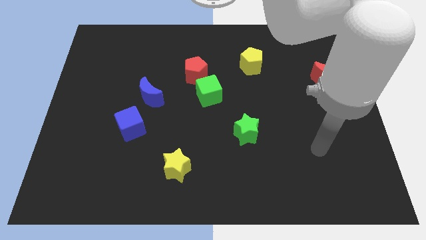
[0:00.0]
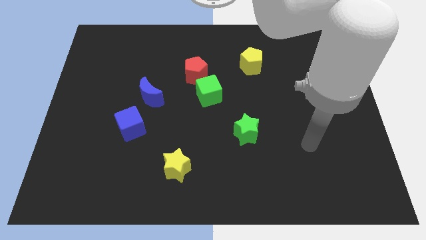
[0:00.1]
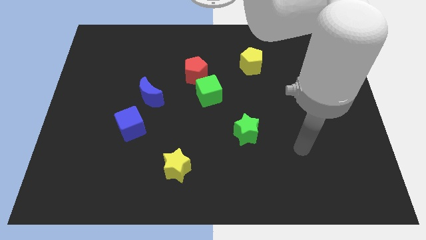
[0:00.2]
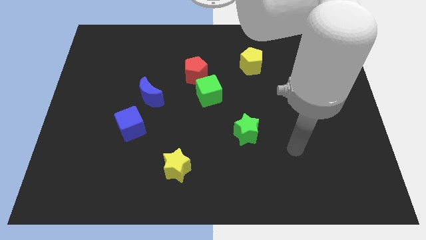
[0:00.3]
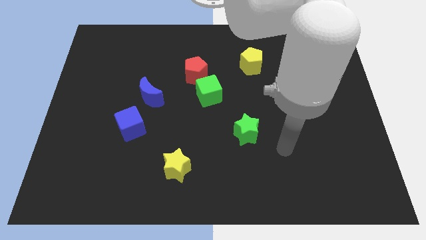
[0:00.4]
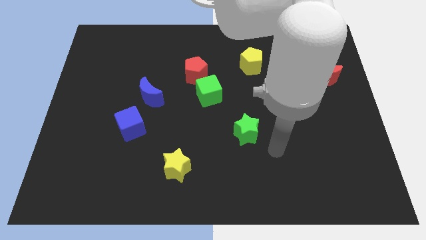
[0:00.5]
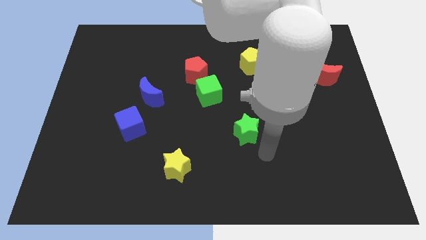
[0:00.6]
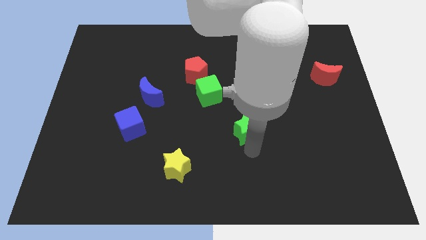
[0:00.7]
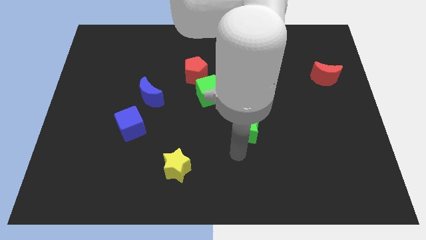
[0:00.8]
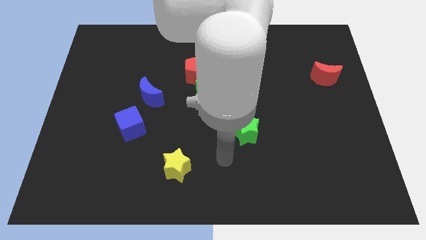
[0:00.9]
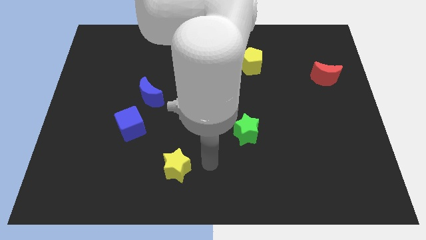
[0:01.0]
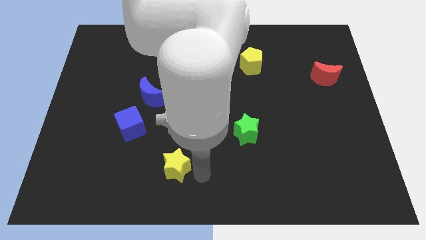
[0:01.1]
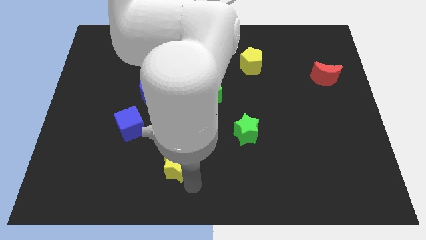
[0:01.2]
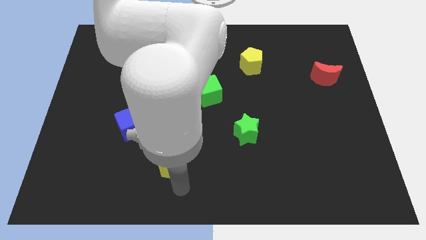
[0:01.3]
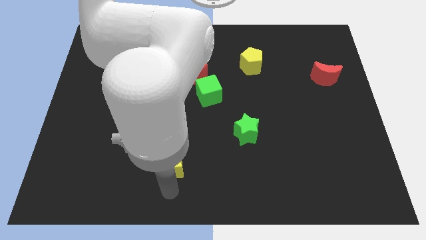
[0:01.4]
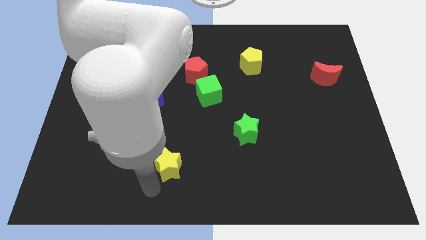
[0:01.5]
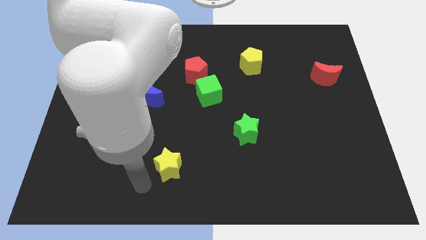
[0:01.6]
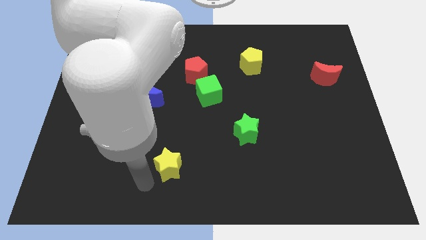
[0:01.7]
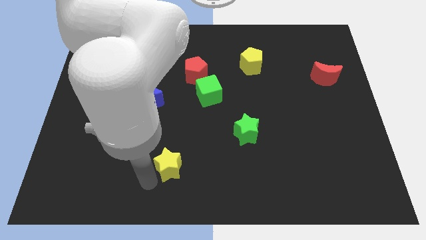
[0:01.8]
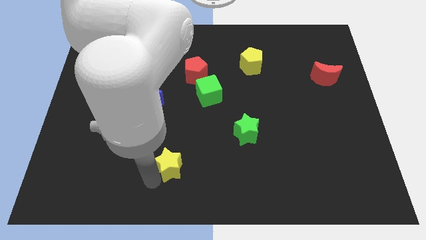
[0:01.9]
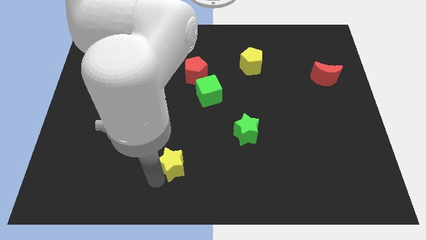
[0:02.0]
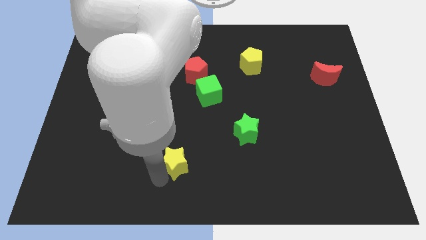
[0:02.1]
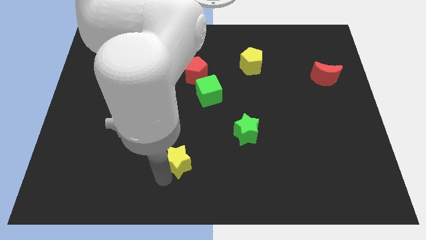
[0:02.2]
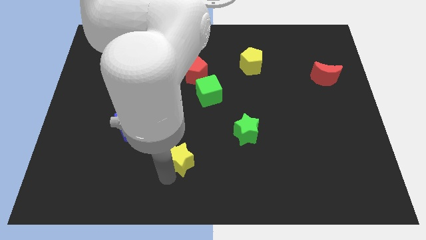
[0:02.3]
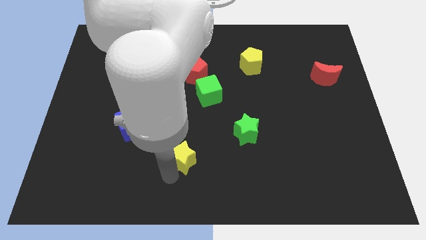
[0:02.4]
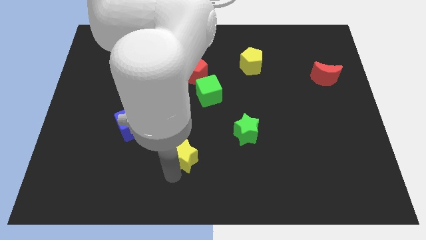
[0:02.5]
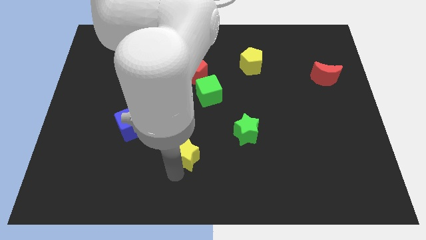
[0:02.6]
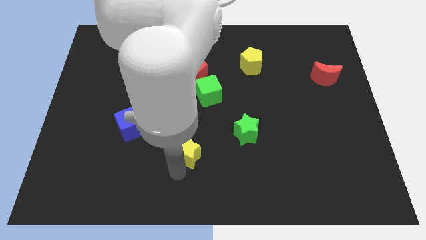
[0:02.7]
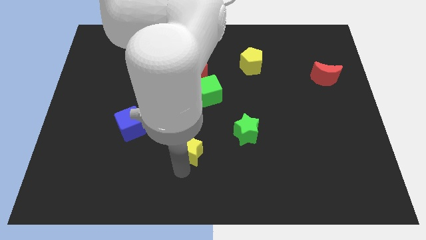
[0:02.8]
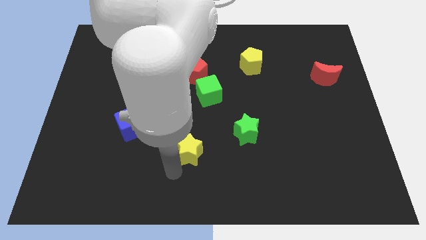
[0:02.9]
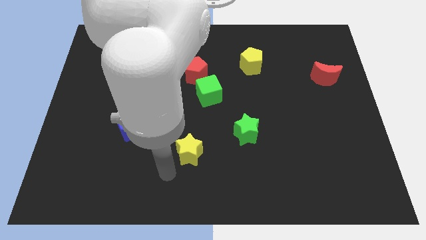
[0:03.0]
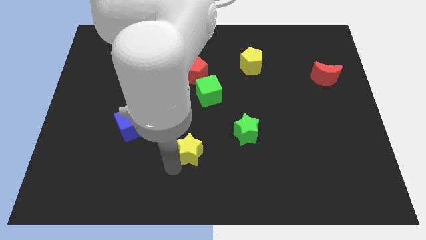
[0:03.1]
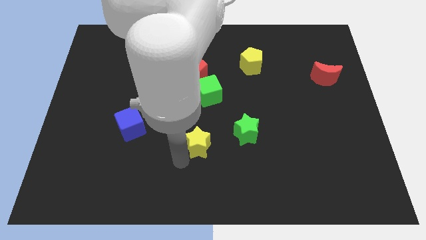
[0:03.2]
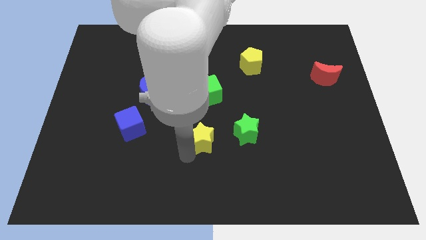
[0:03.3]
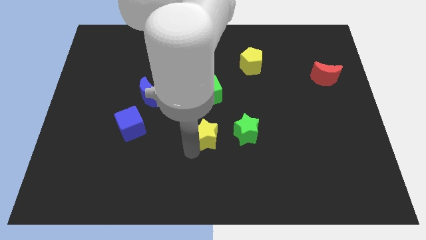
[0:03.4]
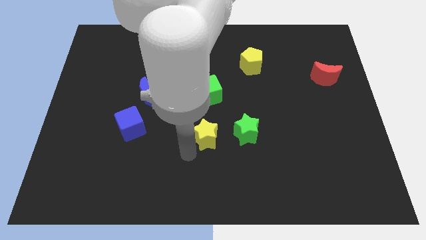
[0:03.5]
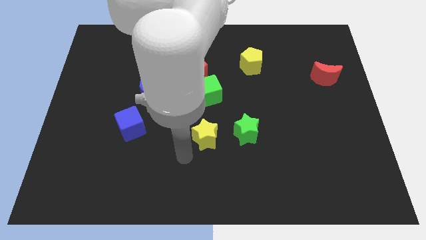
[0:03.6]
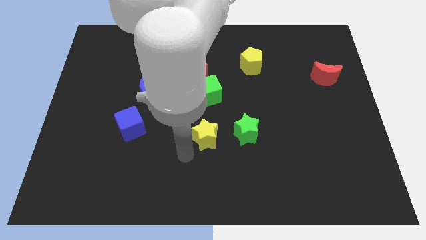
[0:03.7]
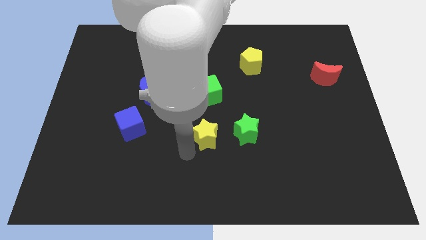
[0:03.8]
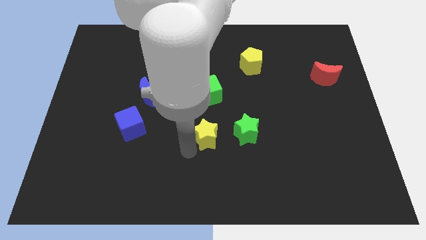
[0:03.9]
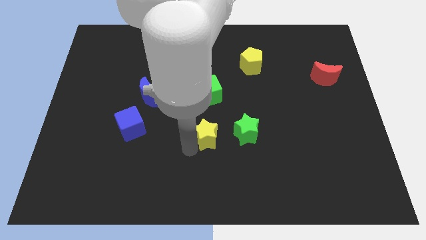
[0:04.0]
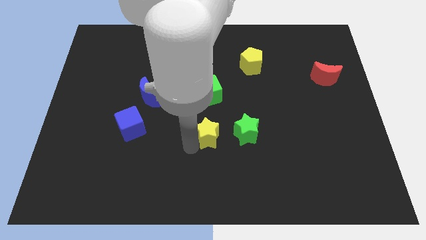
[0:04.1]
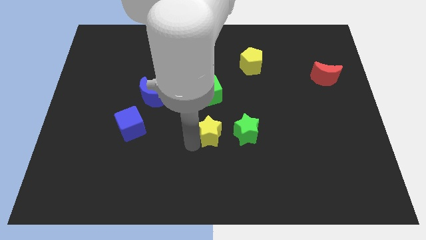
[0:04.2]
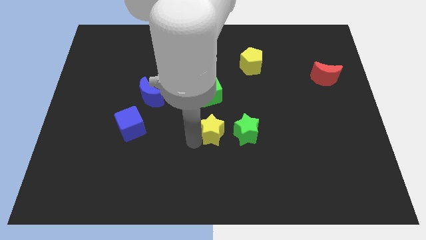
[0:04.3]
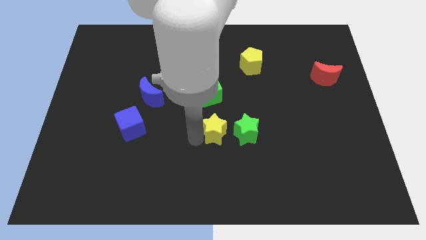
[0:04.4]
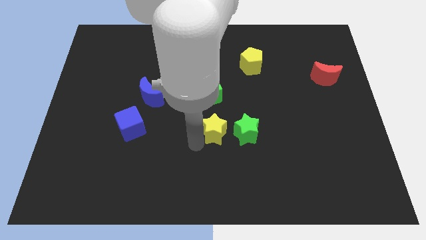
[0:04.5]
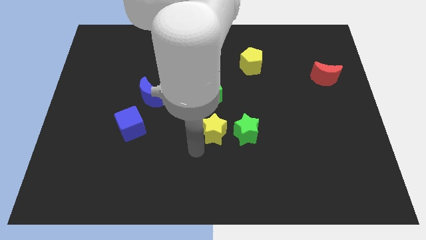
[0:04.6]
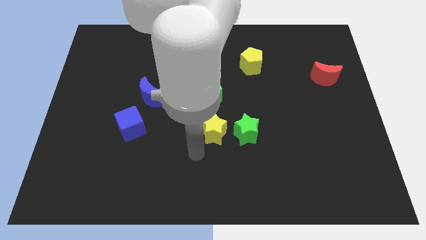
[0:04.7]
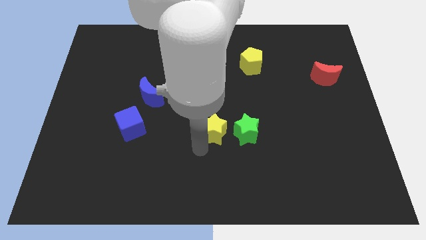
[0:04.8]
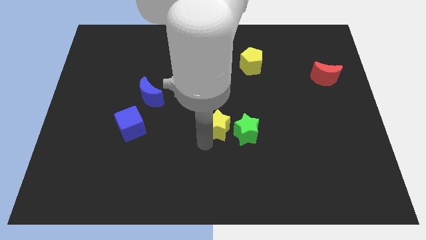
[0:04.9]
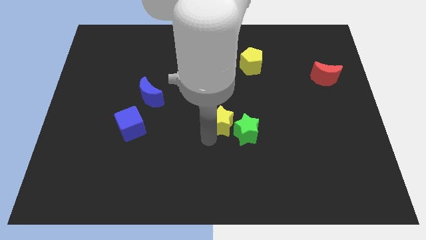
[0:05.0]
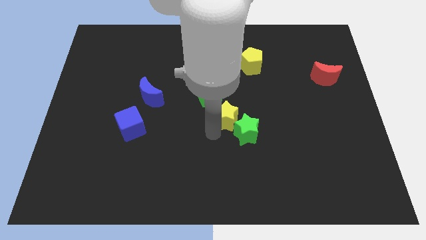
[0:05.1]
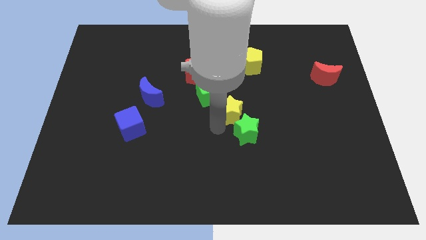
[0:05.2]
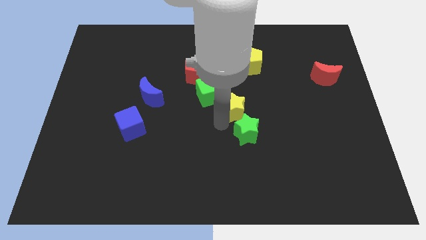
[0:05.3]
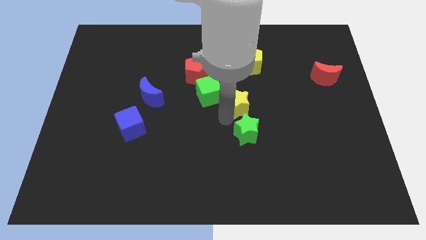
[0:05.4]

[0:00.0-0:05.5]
put the yellow star to the right of the green cube

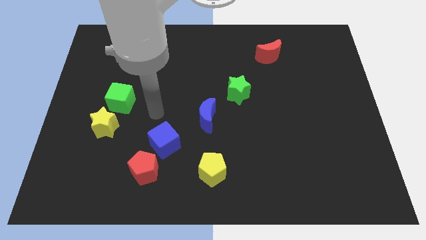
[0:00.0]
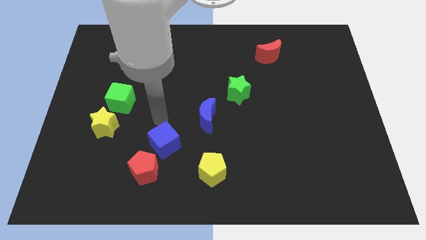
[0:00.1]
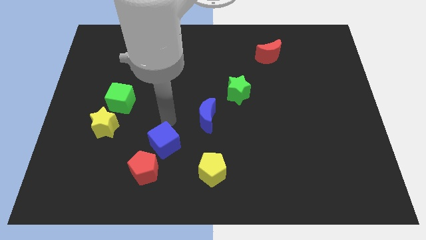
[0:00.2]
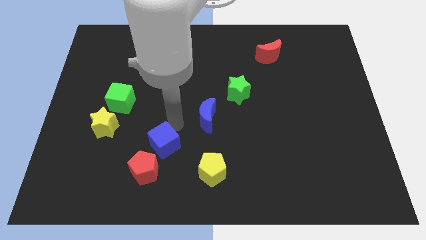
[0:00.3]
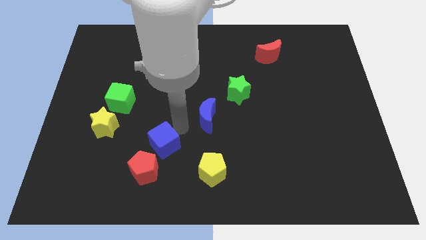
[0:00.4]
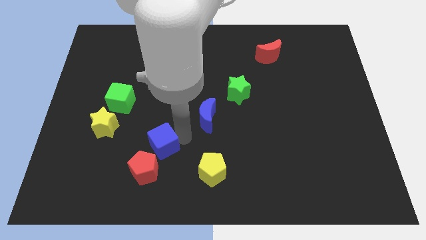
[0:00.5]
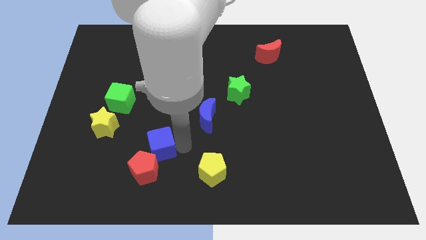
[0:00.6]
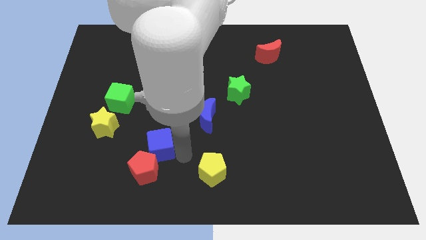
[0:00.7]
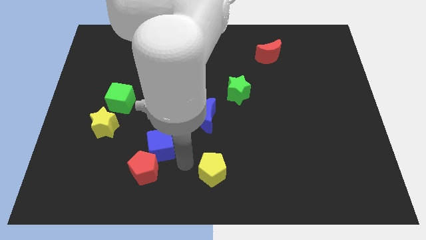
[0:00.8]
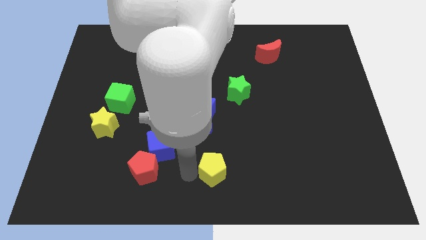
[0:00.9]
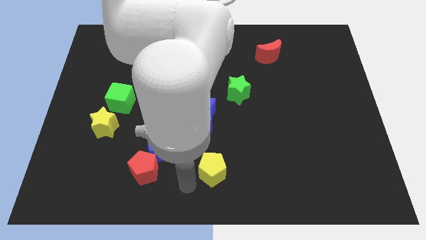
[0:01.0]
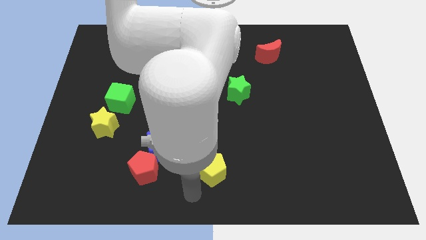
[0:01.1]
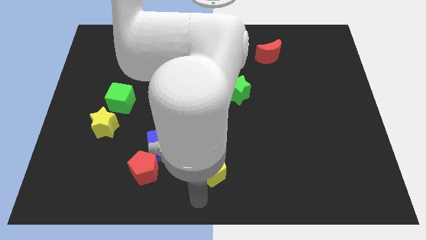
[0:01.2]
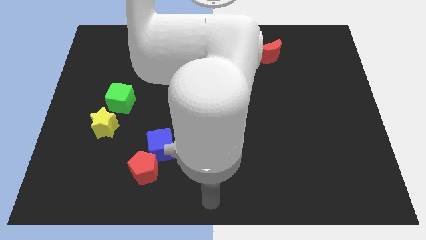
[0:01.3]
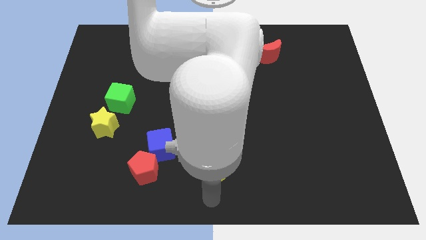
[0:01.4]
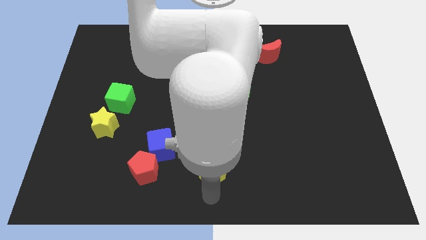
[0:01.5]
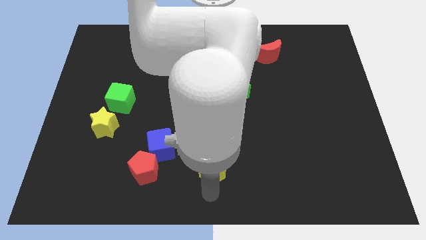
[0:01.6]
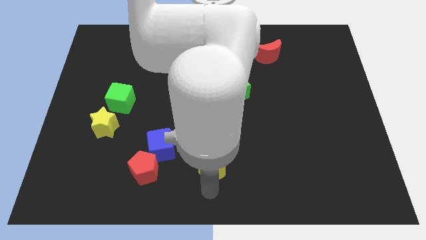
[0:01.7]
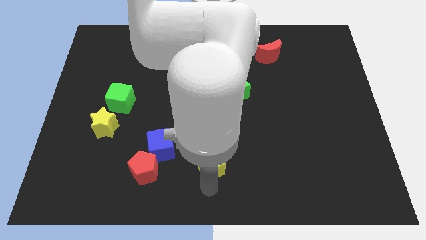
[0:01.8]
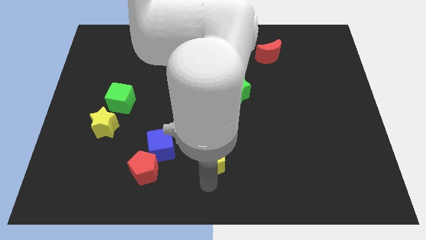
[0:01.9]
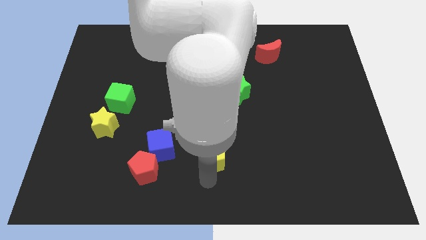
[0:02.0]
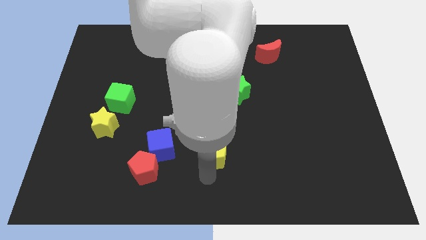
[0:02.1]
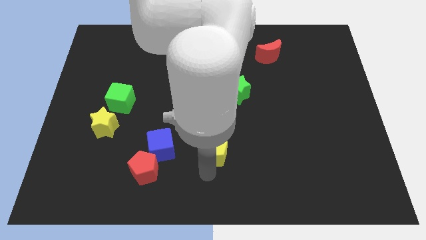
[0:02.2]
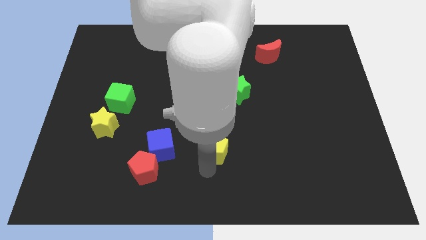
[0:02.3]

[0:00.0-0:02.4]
push the yellow pentagon diagonally down and to the right of the blue moon
